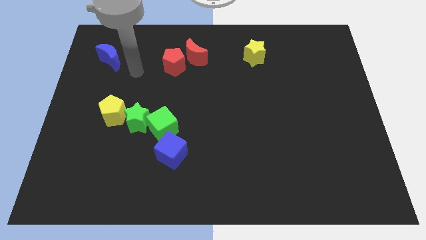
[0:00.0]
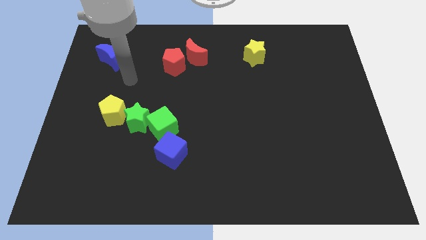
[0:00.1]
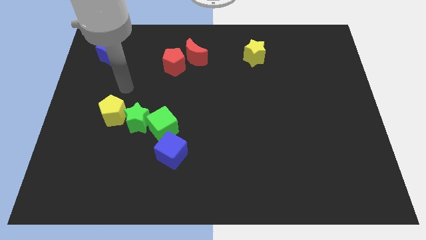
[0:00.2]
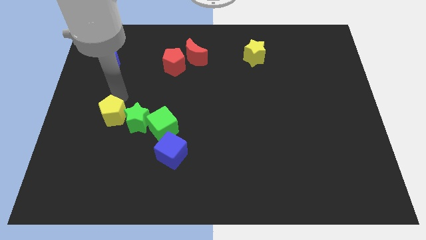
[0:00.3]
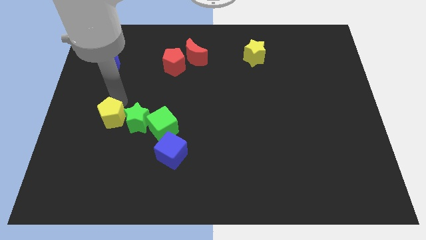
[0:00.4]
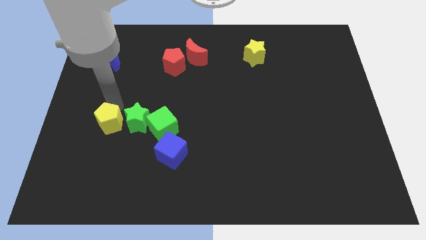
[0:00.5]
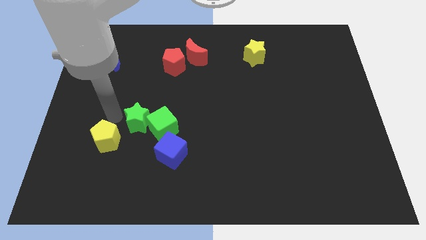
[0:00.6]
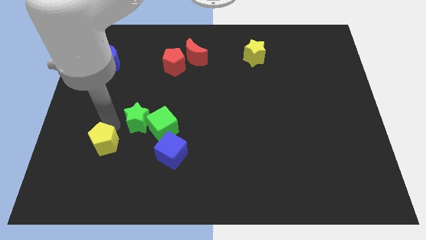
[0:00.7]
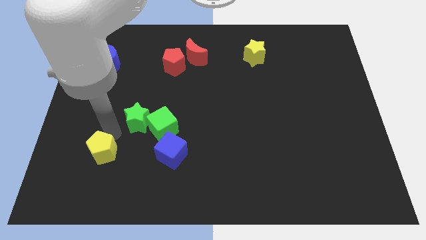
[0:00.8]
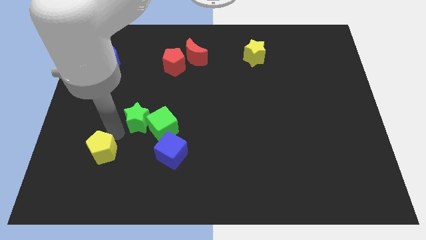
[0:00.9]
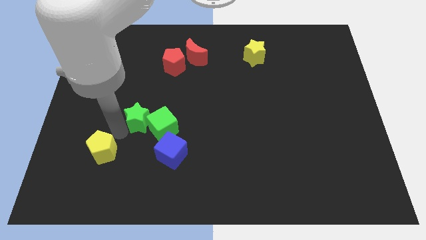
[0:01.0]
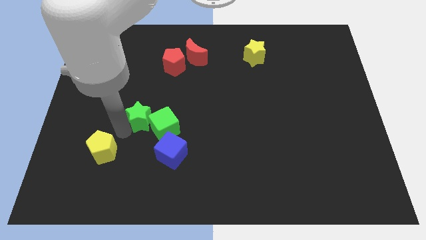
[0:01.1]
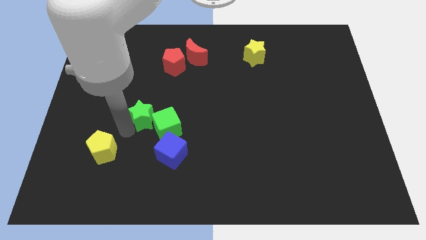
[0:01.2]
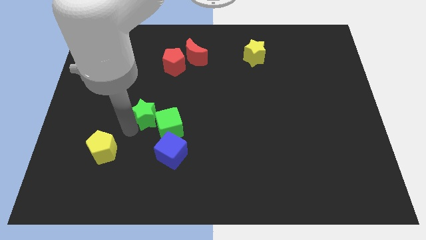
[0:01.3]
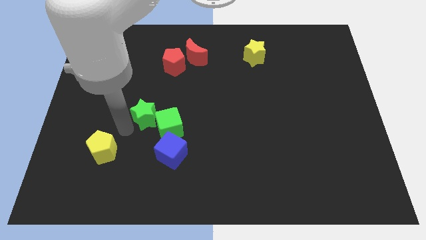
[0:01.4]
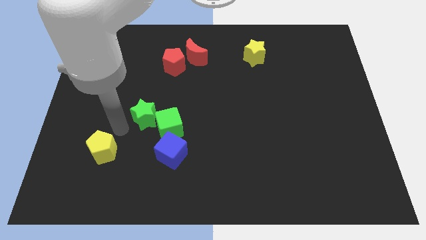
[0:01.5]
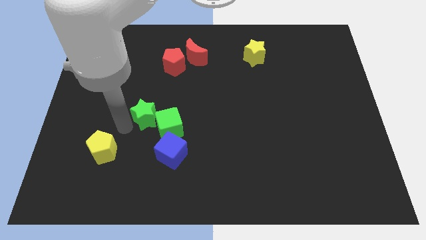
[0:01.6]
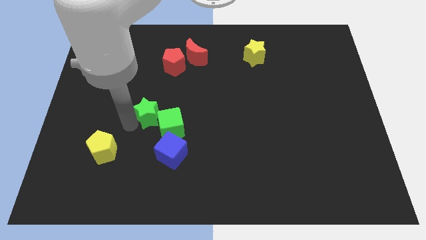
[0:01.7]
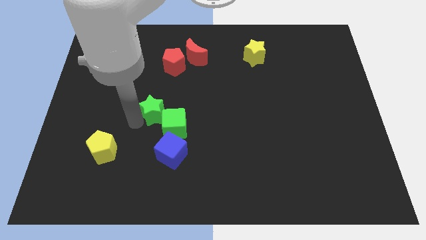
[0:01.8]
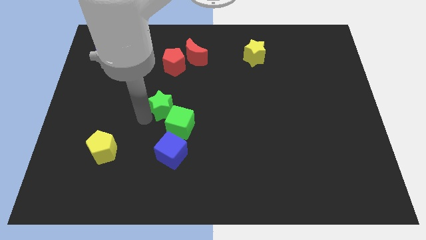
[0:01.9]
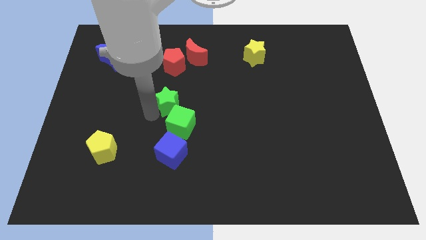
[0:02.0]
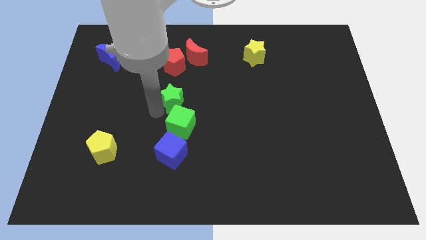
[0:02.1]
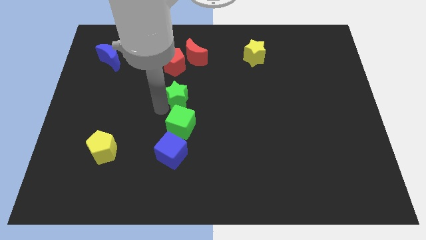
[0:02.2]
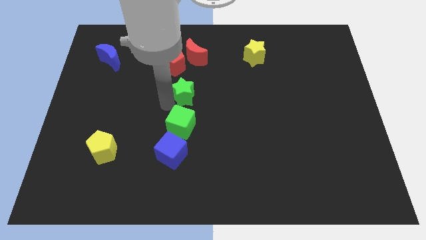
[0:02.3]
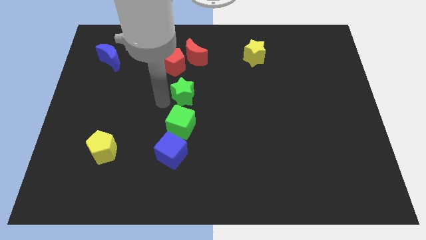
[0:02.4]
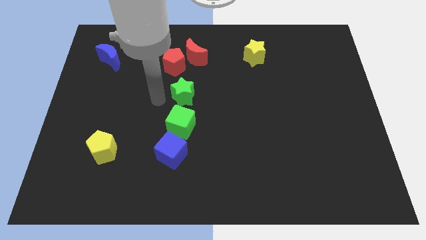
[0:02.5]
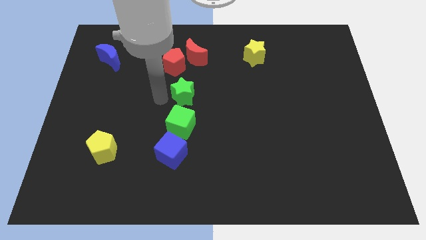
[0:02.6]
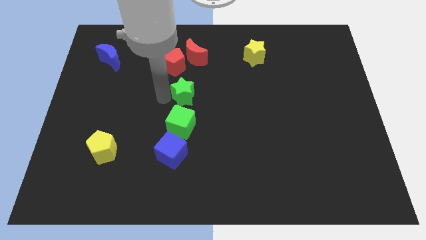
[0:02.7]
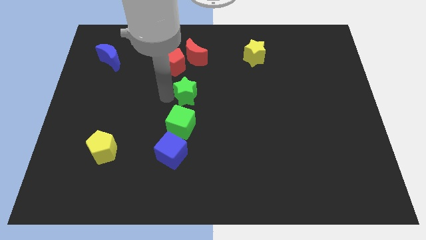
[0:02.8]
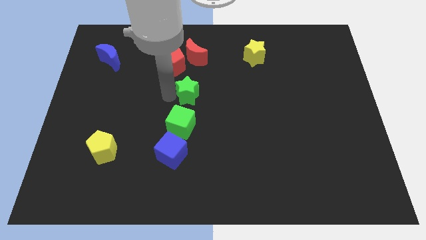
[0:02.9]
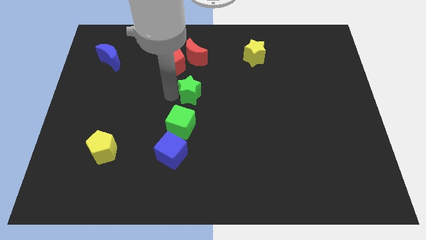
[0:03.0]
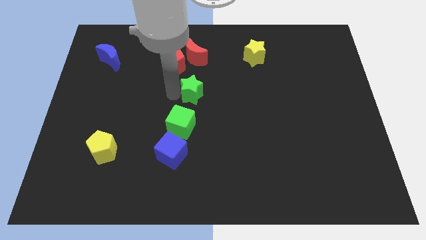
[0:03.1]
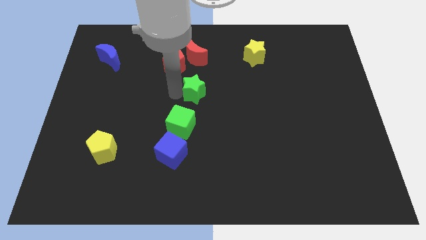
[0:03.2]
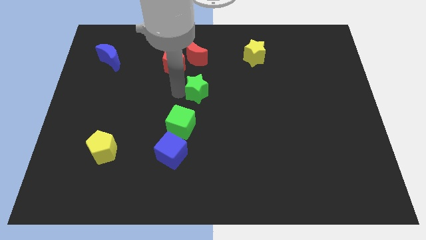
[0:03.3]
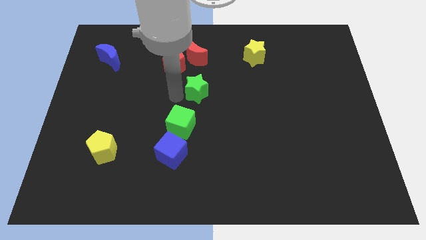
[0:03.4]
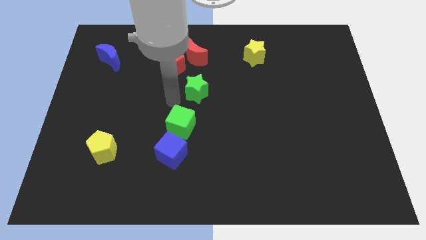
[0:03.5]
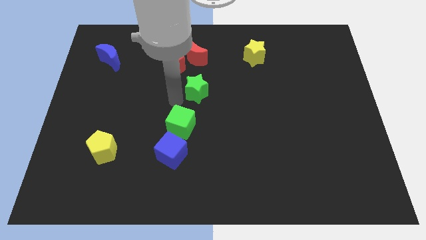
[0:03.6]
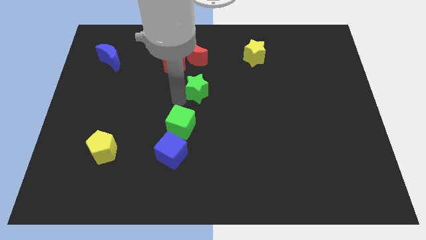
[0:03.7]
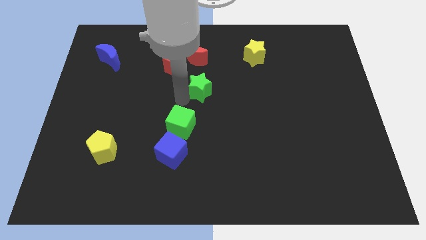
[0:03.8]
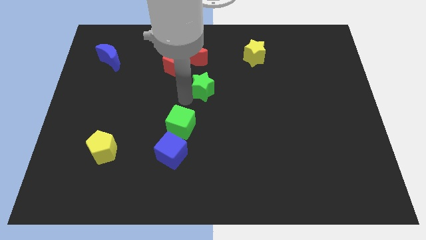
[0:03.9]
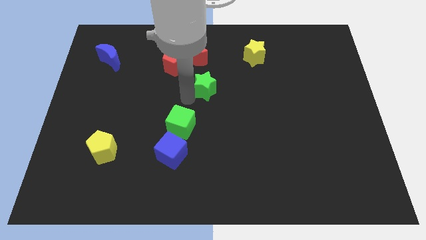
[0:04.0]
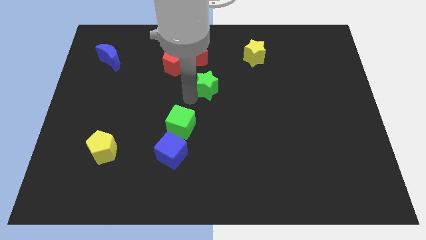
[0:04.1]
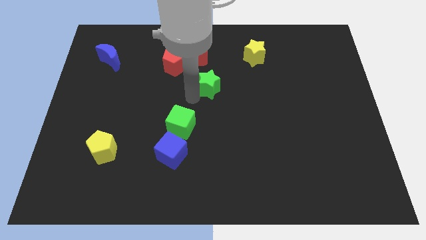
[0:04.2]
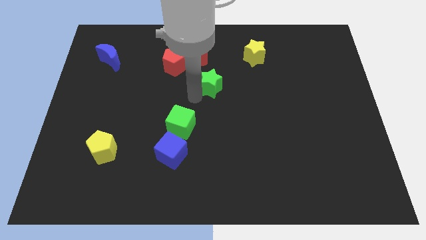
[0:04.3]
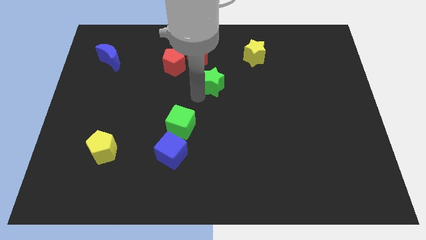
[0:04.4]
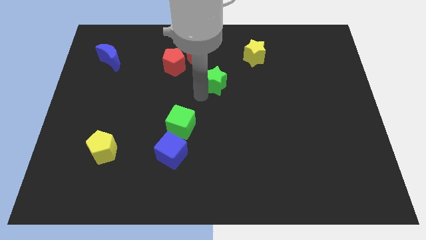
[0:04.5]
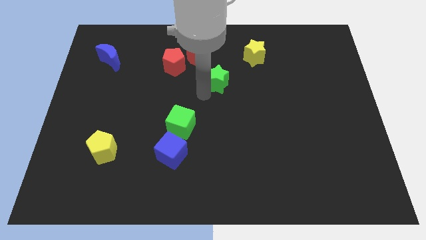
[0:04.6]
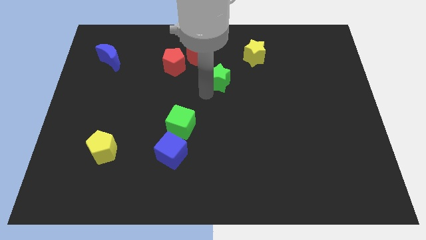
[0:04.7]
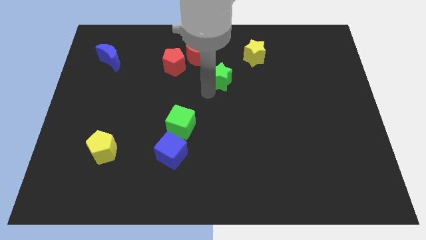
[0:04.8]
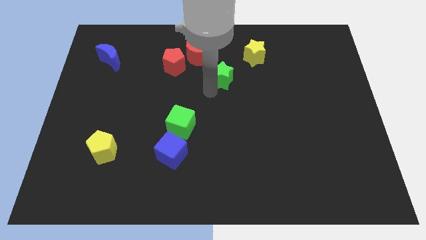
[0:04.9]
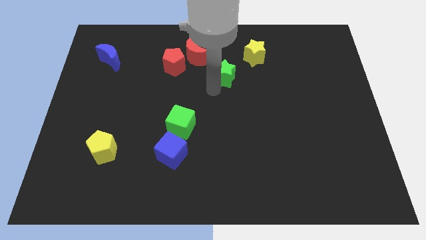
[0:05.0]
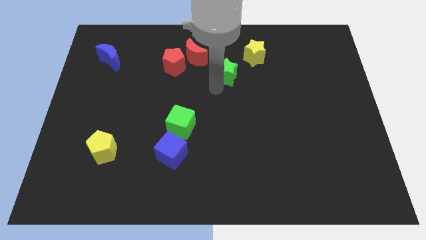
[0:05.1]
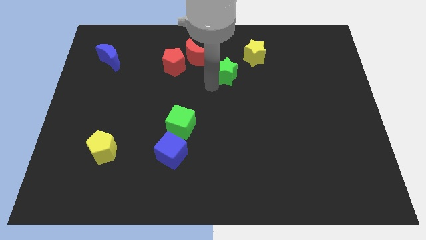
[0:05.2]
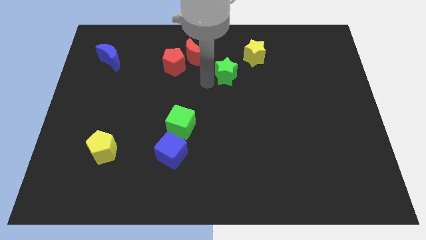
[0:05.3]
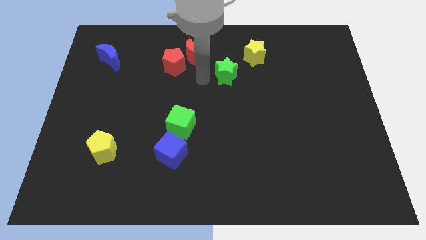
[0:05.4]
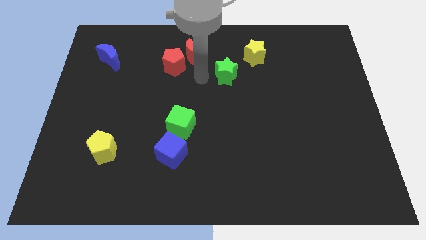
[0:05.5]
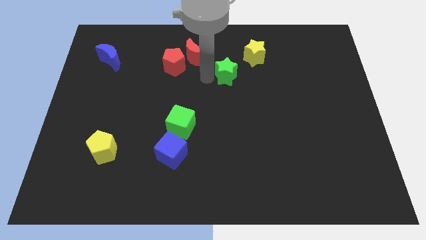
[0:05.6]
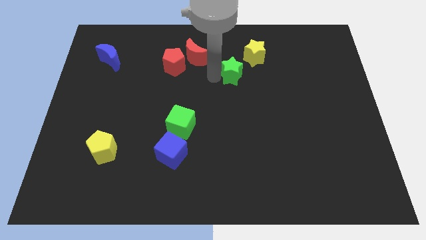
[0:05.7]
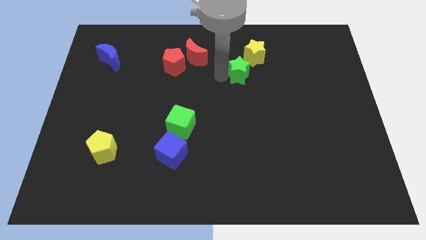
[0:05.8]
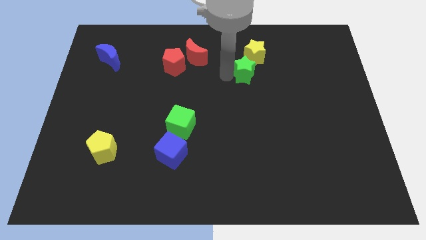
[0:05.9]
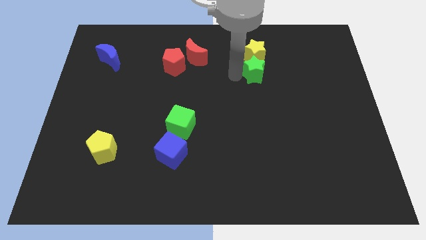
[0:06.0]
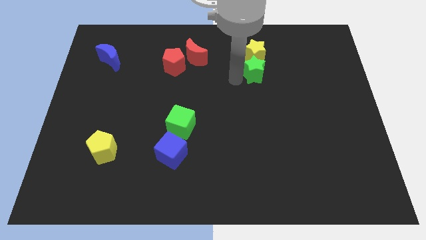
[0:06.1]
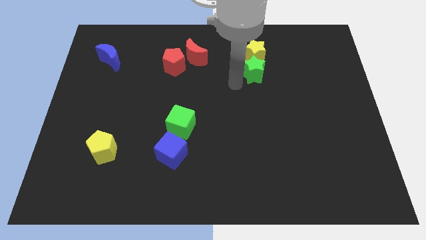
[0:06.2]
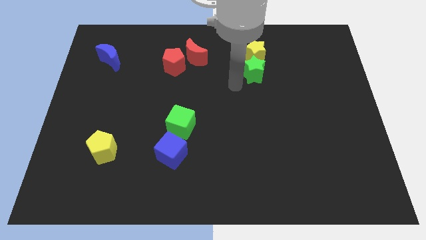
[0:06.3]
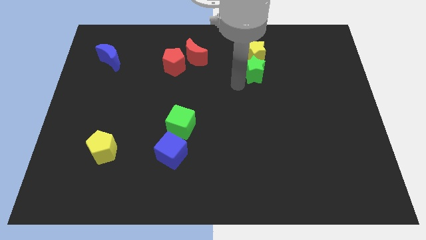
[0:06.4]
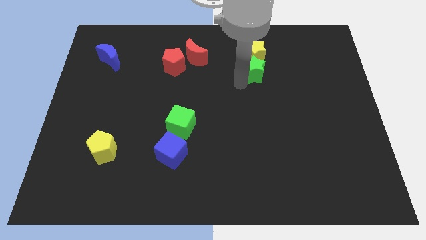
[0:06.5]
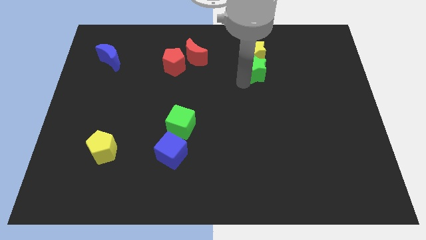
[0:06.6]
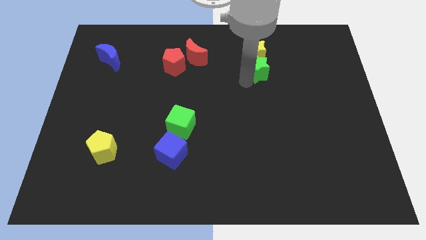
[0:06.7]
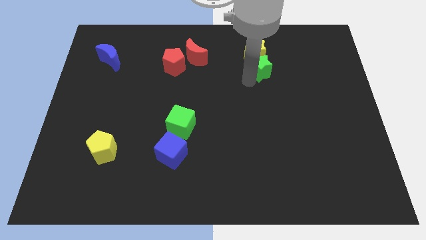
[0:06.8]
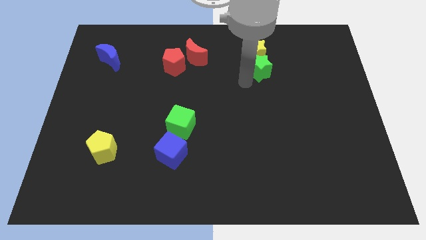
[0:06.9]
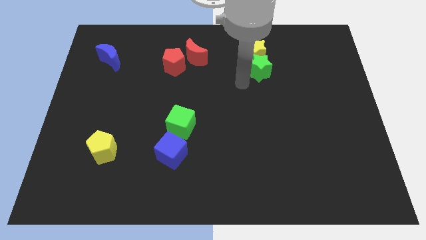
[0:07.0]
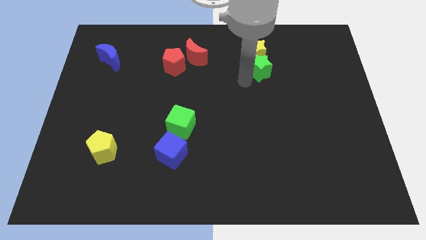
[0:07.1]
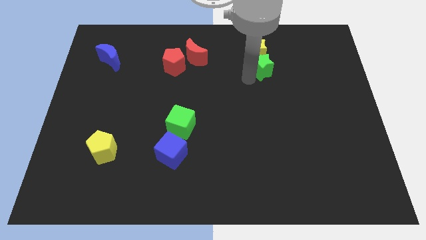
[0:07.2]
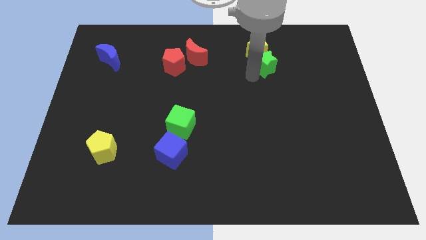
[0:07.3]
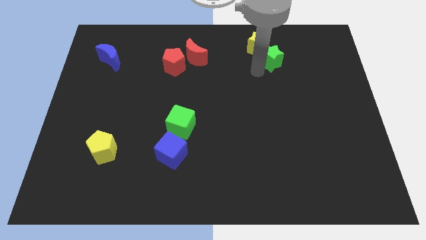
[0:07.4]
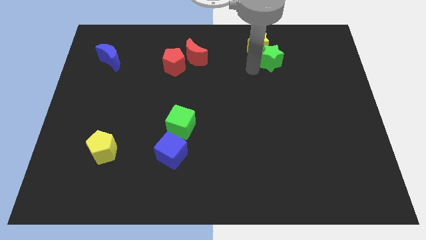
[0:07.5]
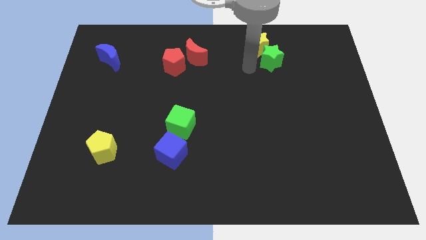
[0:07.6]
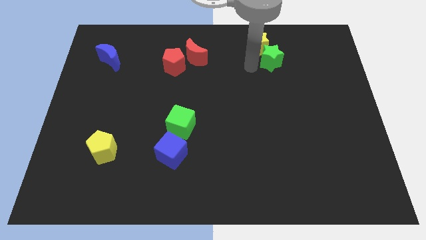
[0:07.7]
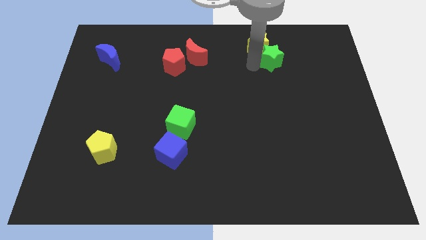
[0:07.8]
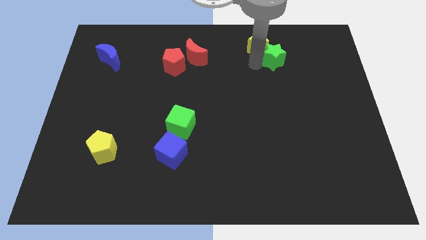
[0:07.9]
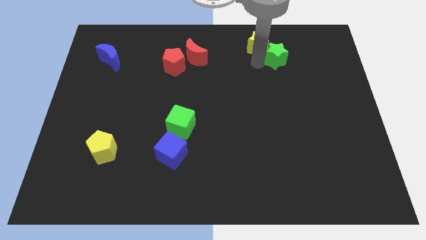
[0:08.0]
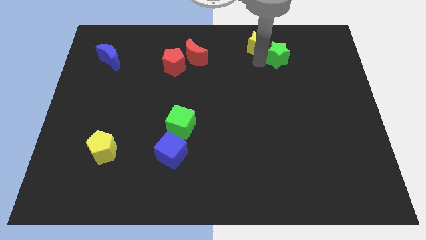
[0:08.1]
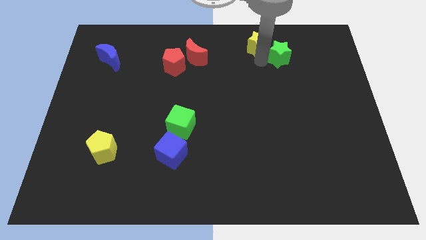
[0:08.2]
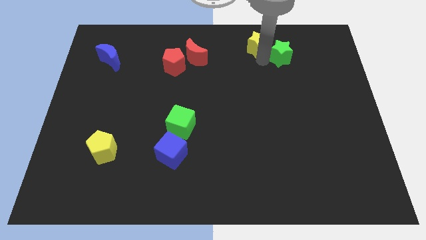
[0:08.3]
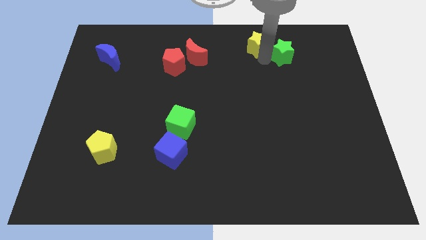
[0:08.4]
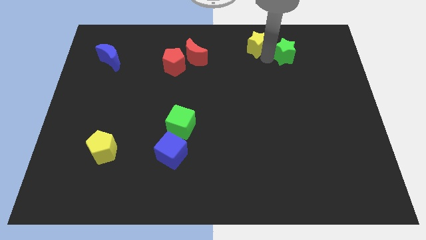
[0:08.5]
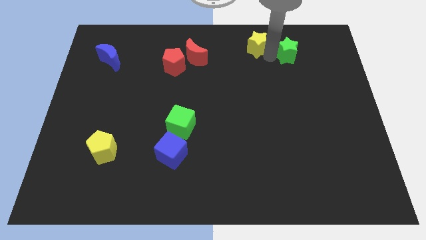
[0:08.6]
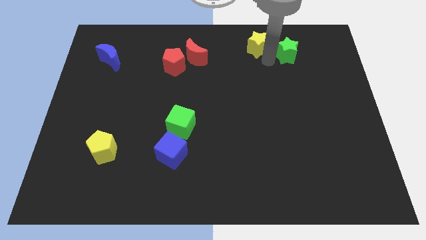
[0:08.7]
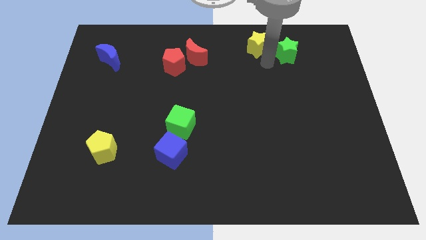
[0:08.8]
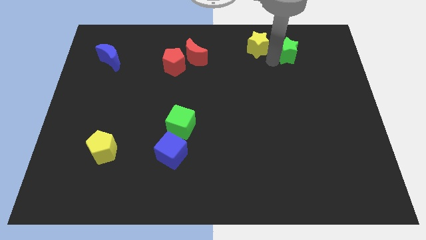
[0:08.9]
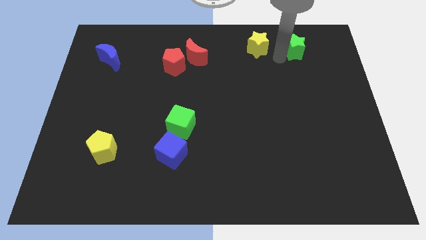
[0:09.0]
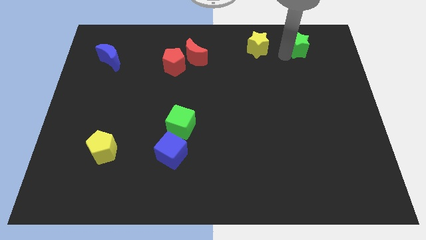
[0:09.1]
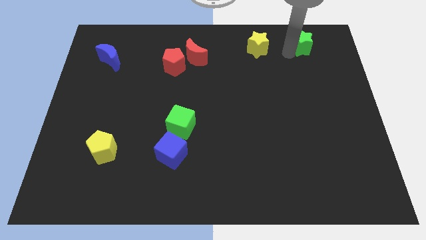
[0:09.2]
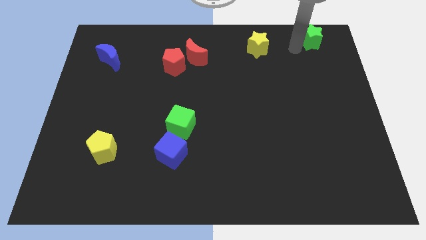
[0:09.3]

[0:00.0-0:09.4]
slide the green star to the upper right corner
